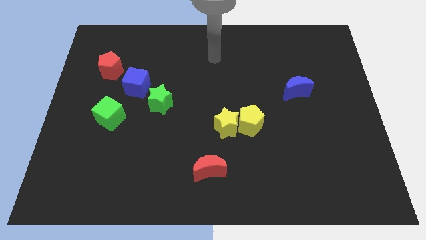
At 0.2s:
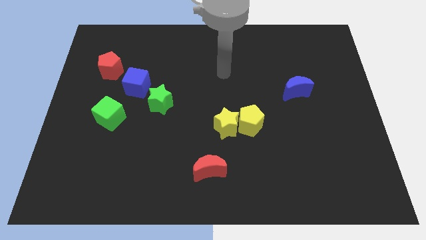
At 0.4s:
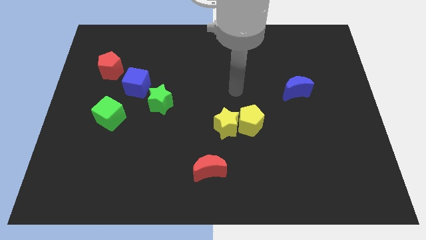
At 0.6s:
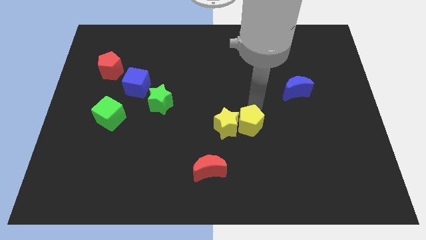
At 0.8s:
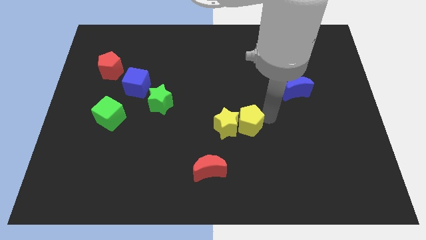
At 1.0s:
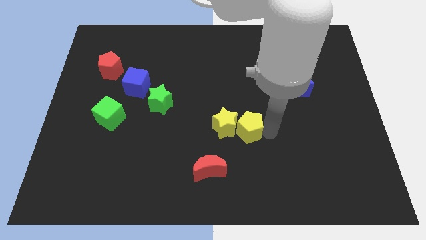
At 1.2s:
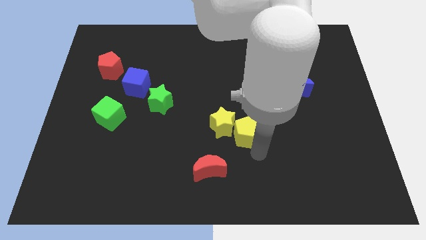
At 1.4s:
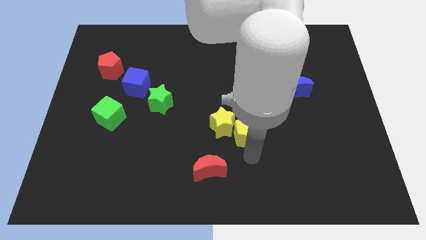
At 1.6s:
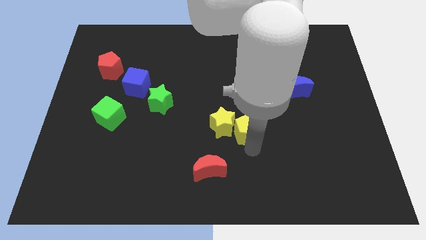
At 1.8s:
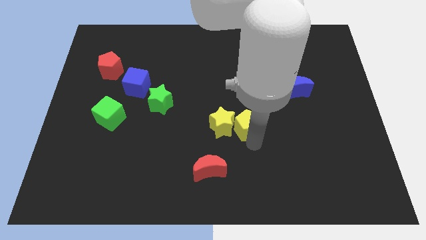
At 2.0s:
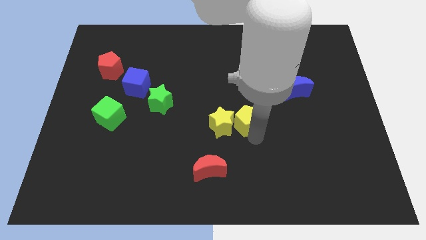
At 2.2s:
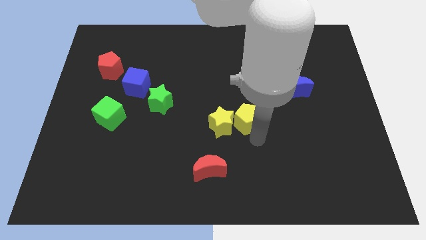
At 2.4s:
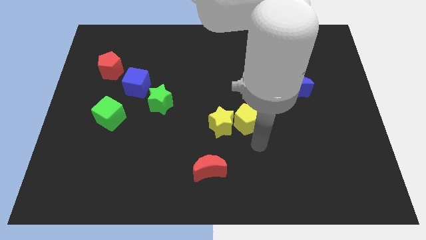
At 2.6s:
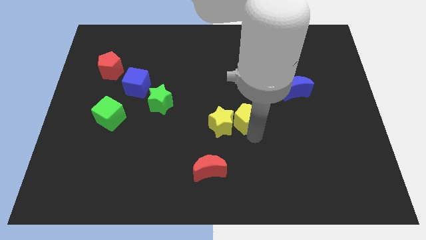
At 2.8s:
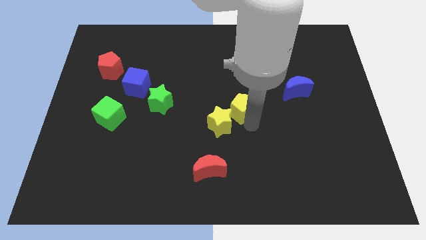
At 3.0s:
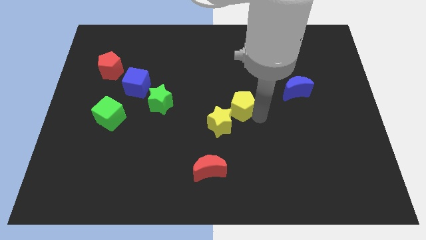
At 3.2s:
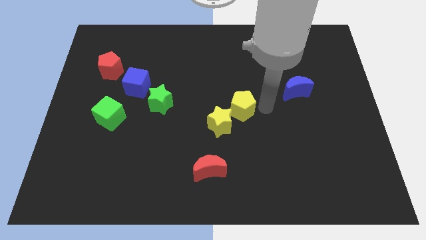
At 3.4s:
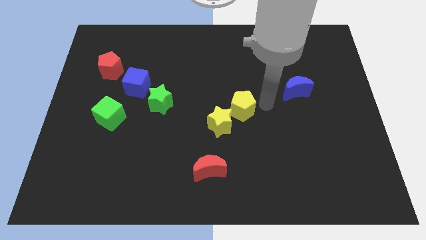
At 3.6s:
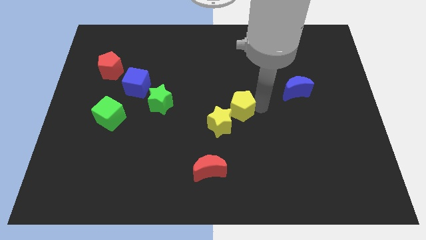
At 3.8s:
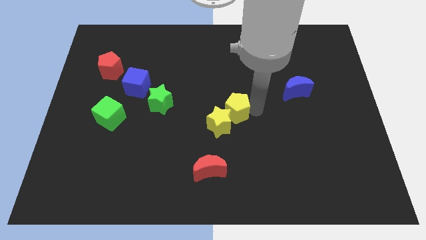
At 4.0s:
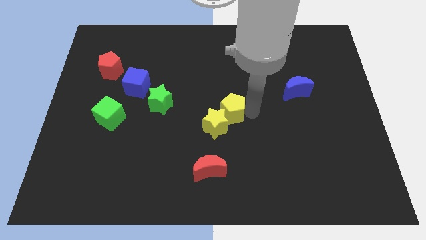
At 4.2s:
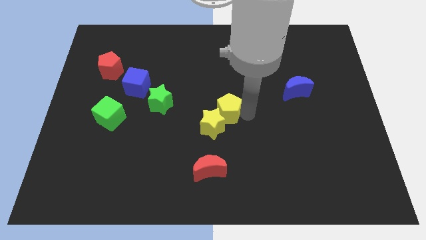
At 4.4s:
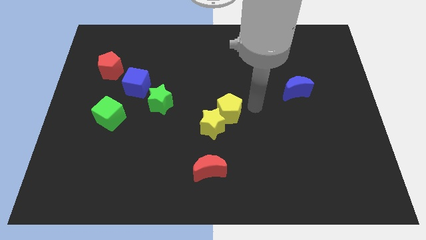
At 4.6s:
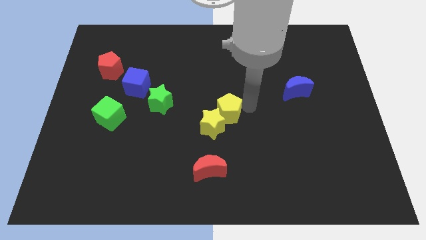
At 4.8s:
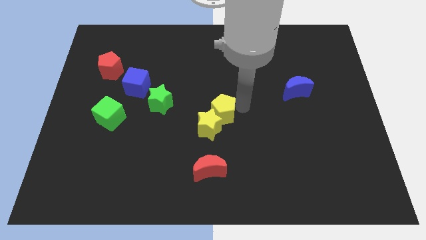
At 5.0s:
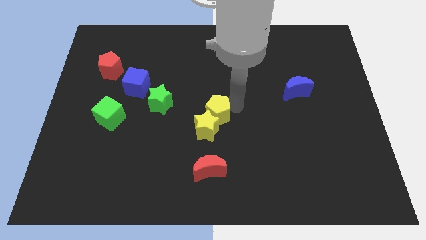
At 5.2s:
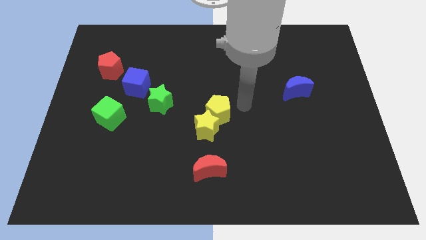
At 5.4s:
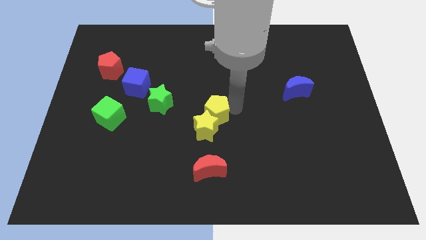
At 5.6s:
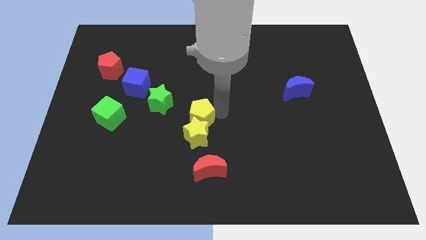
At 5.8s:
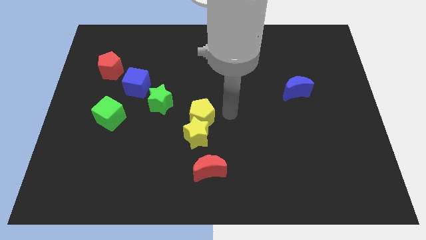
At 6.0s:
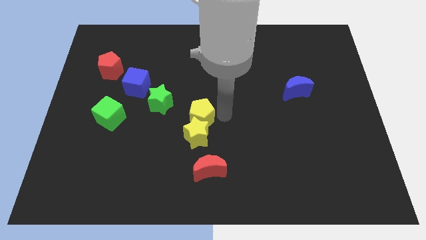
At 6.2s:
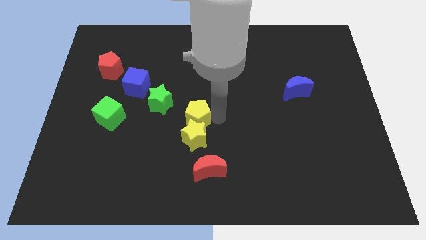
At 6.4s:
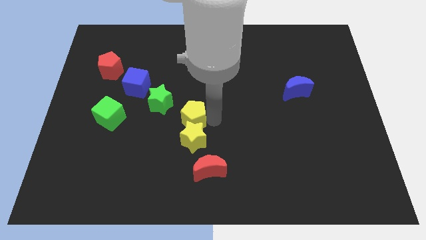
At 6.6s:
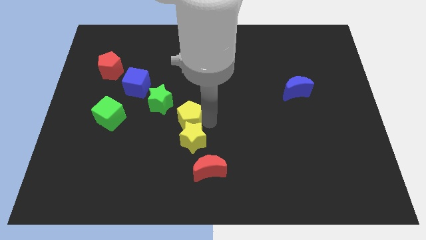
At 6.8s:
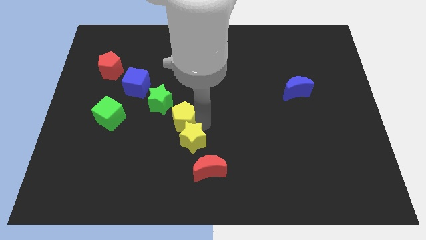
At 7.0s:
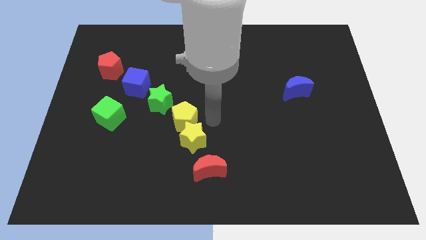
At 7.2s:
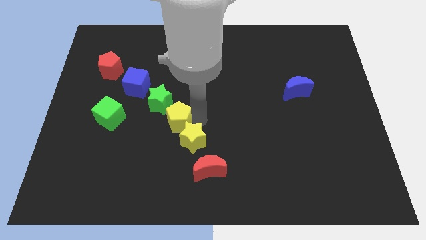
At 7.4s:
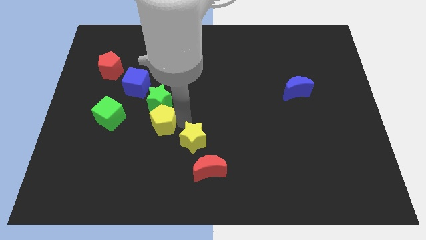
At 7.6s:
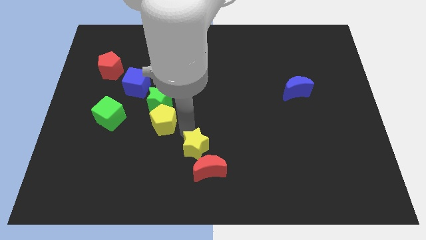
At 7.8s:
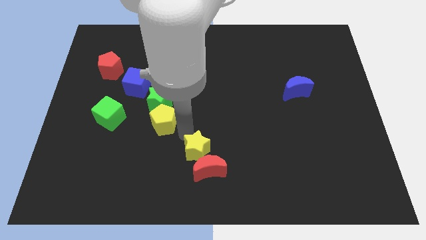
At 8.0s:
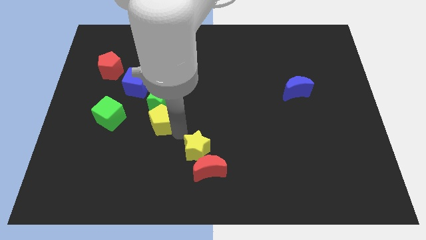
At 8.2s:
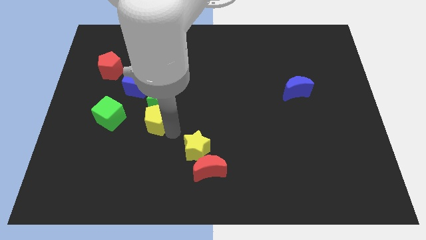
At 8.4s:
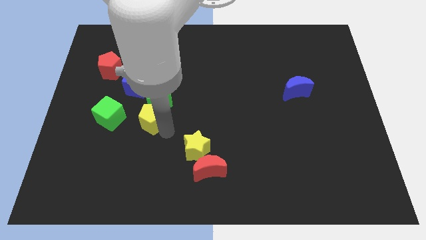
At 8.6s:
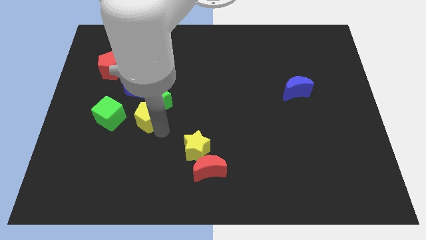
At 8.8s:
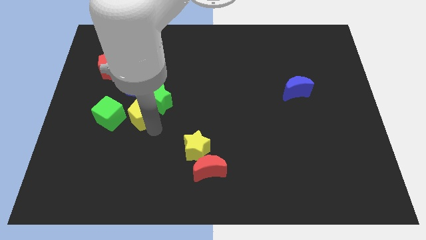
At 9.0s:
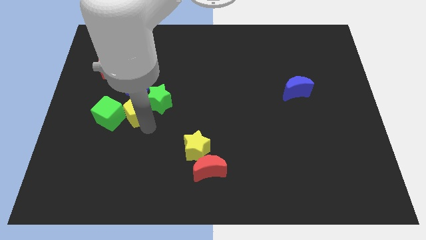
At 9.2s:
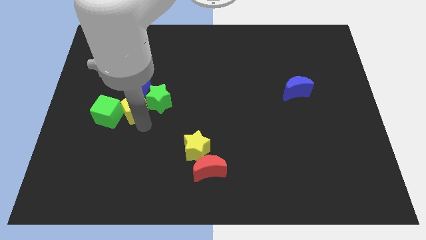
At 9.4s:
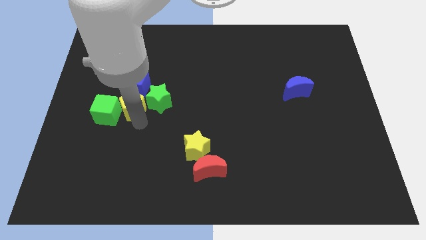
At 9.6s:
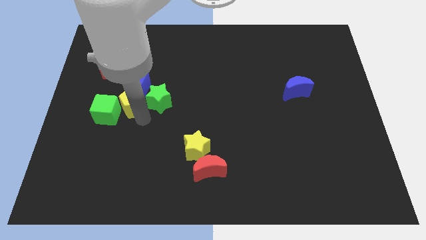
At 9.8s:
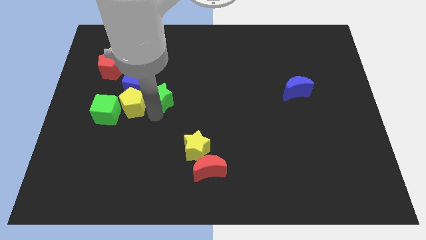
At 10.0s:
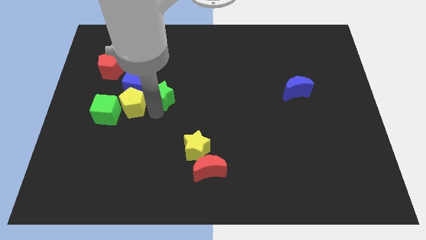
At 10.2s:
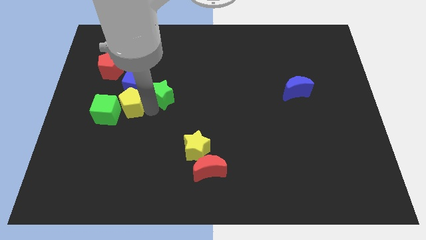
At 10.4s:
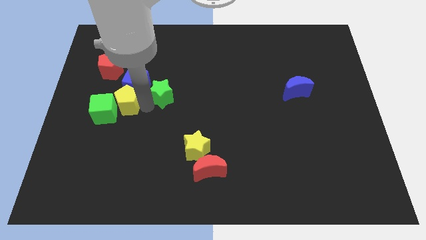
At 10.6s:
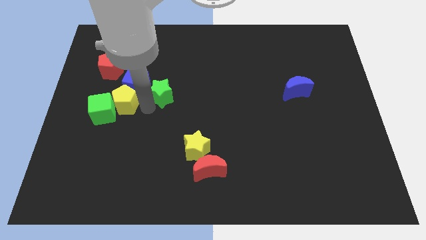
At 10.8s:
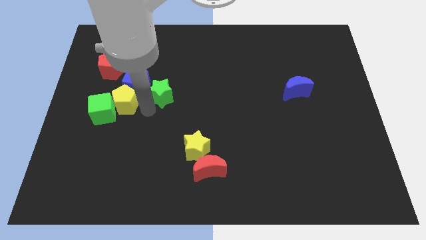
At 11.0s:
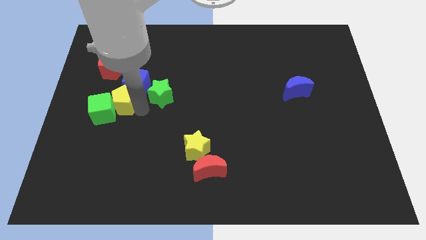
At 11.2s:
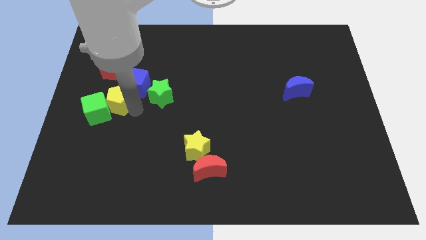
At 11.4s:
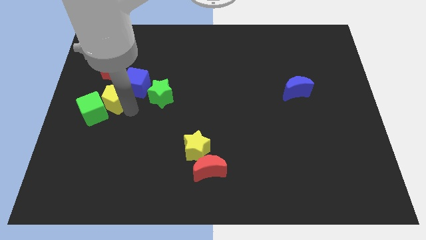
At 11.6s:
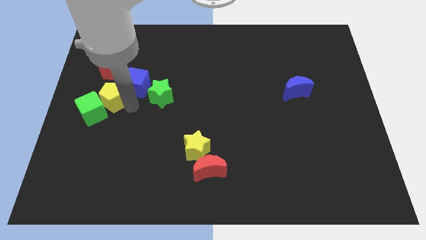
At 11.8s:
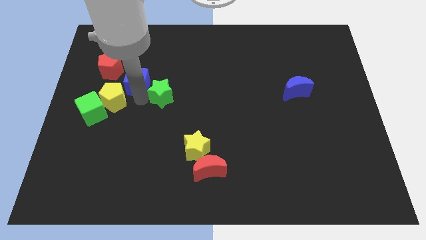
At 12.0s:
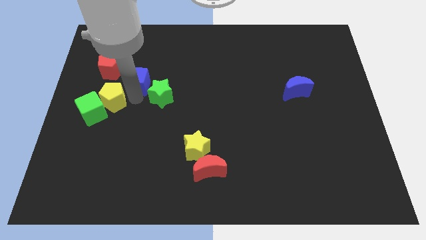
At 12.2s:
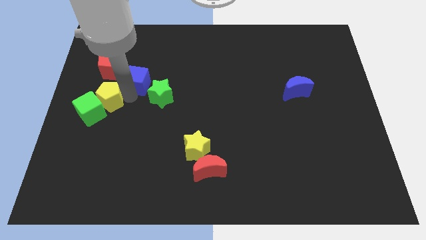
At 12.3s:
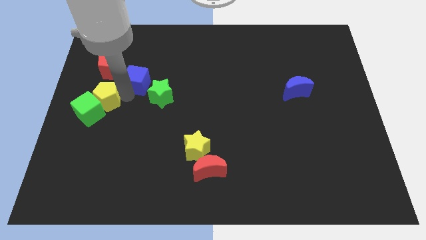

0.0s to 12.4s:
put the yellow pentagon to the center left
